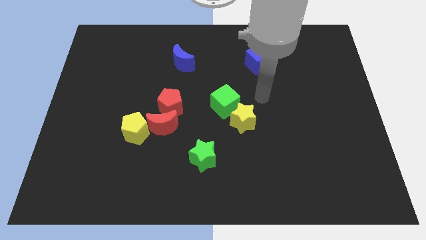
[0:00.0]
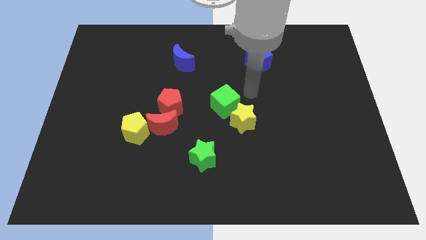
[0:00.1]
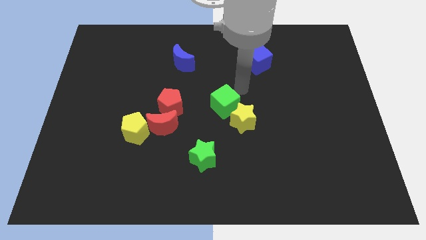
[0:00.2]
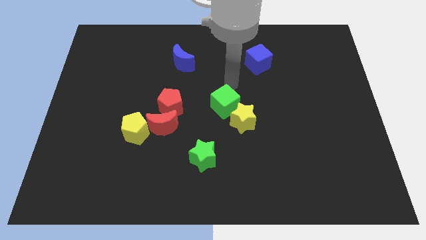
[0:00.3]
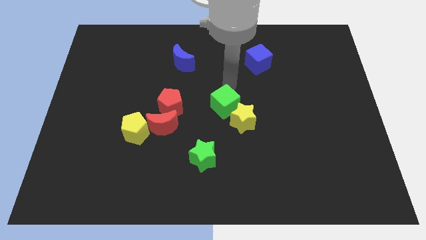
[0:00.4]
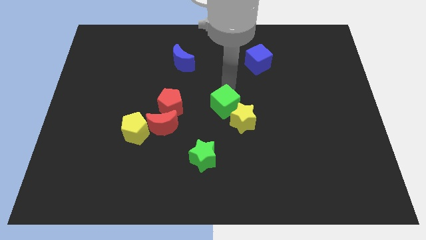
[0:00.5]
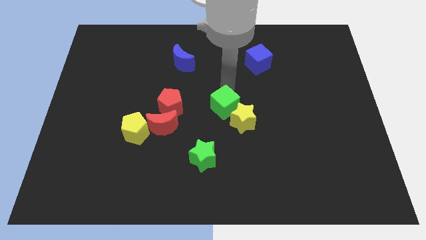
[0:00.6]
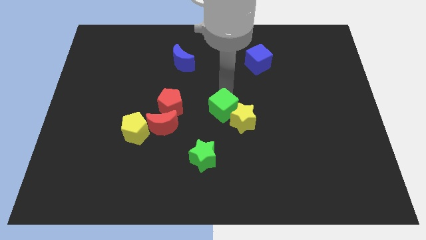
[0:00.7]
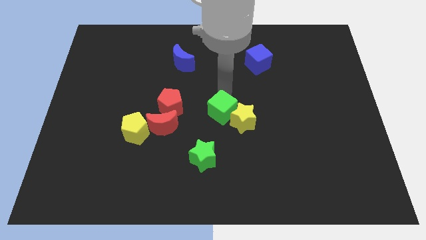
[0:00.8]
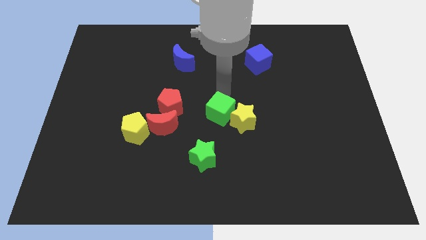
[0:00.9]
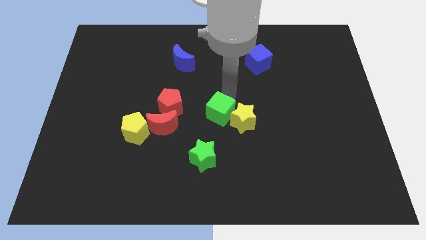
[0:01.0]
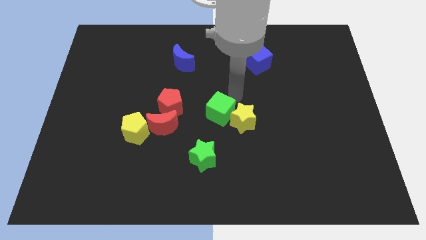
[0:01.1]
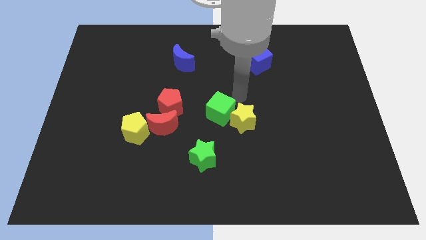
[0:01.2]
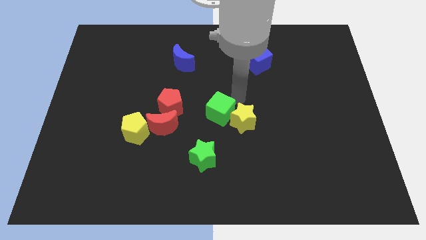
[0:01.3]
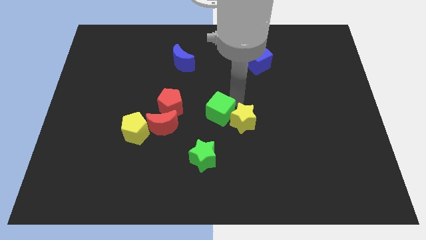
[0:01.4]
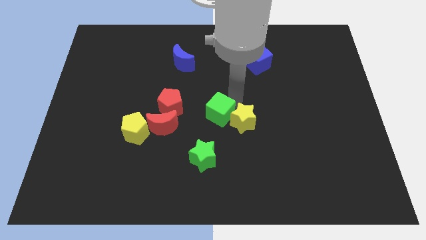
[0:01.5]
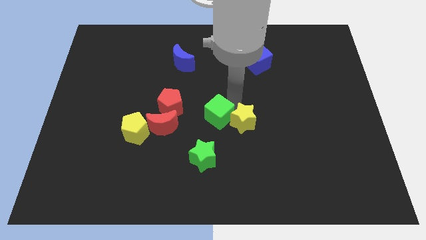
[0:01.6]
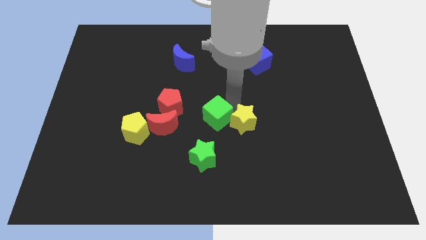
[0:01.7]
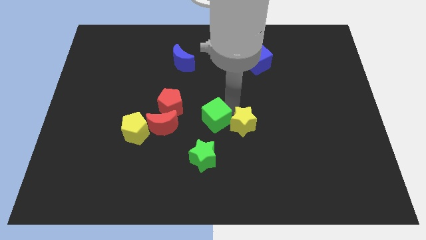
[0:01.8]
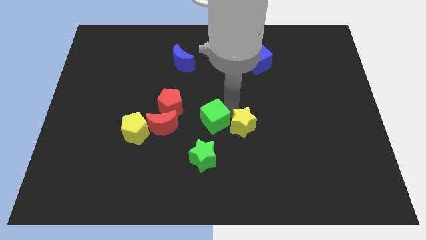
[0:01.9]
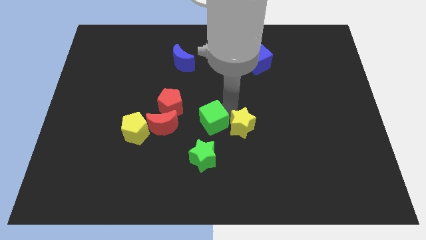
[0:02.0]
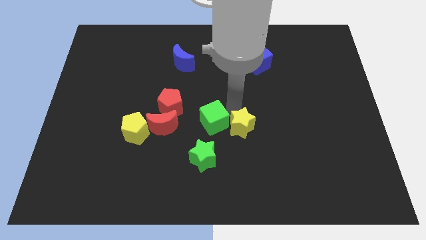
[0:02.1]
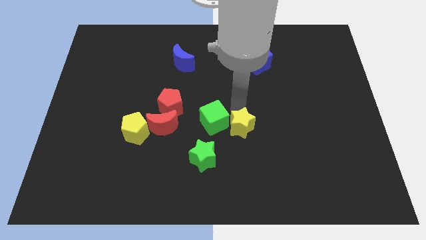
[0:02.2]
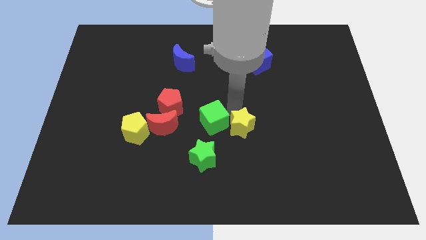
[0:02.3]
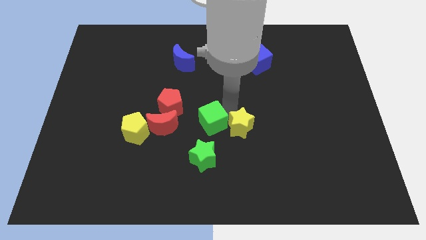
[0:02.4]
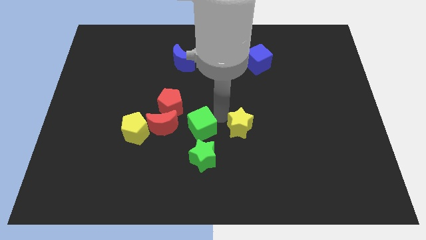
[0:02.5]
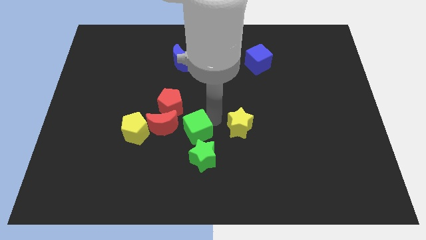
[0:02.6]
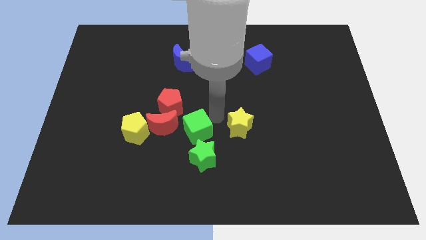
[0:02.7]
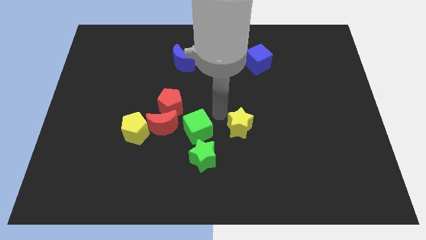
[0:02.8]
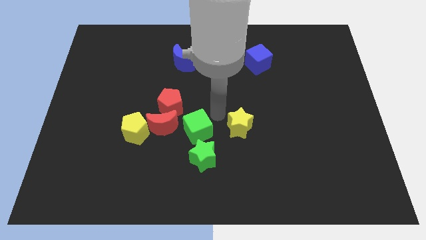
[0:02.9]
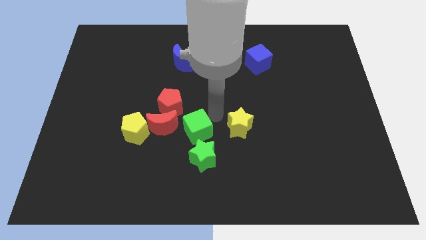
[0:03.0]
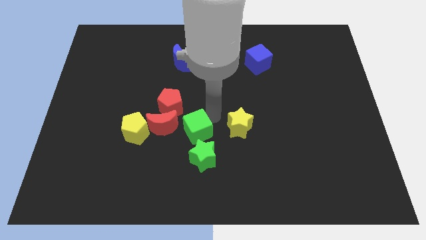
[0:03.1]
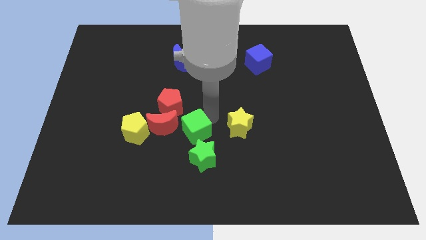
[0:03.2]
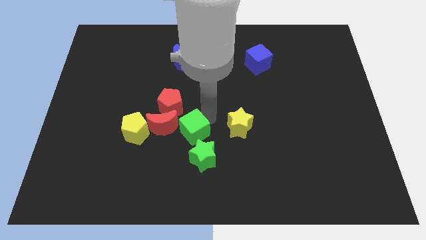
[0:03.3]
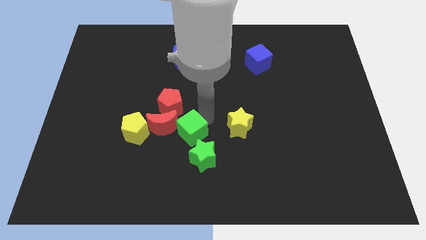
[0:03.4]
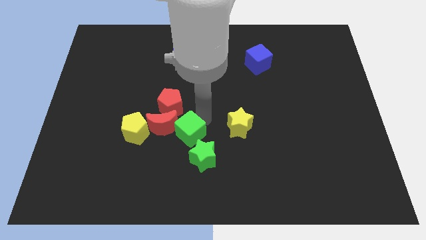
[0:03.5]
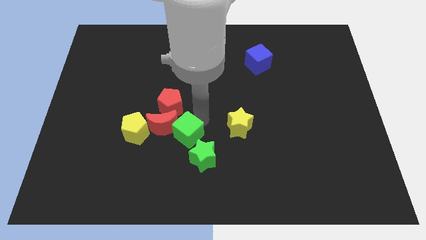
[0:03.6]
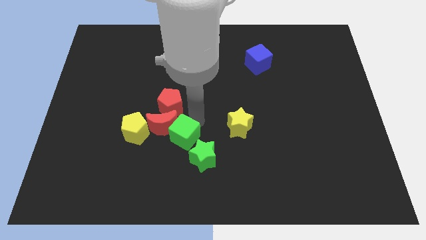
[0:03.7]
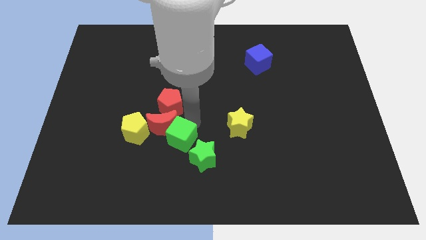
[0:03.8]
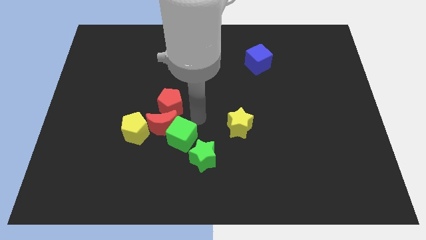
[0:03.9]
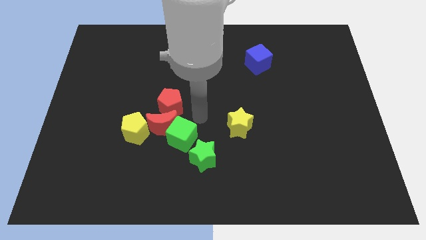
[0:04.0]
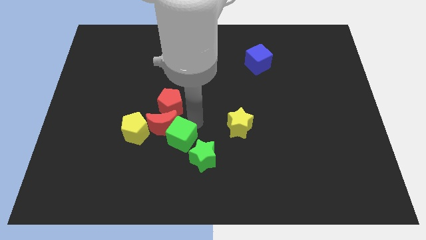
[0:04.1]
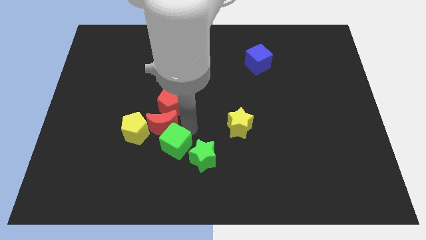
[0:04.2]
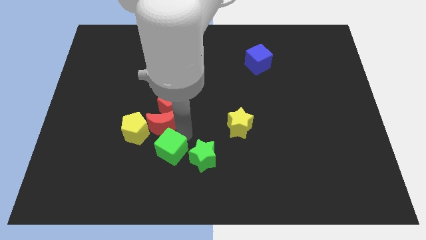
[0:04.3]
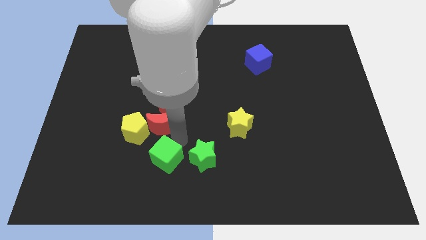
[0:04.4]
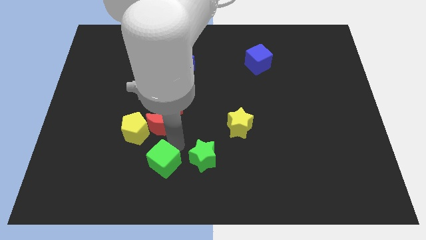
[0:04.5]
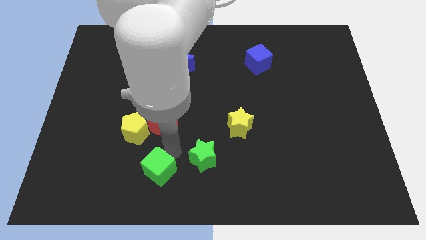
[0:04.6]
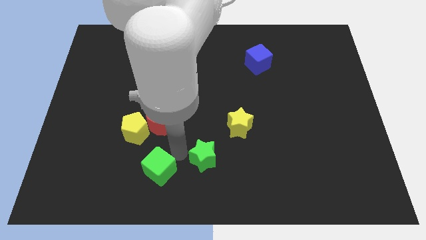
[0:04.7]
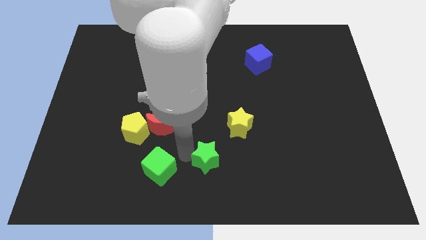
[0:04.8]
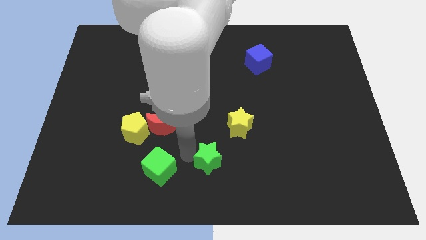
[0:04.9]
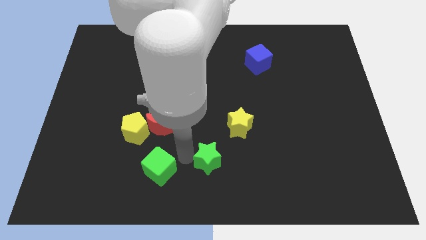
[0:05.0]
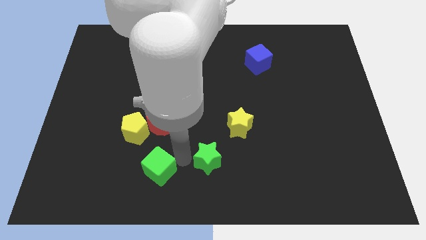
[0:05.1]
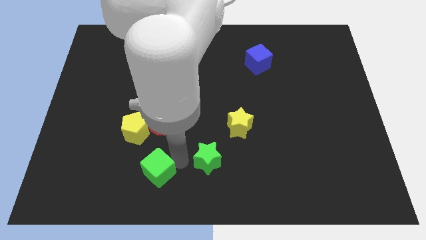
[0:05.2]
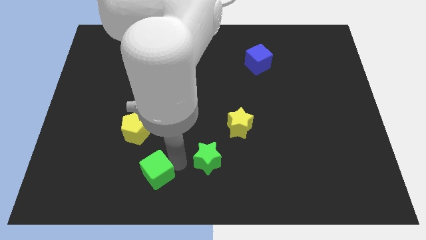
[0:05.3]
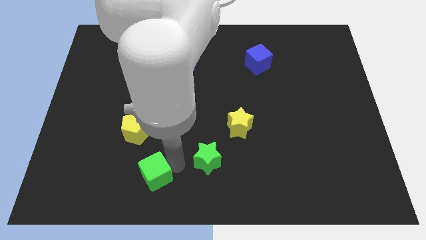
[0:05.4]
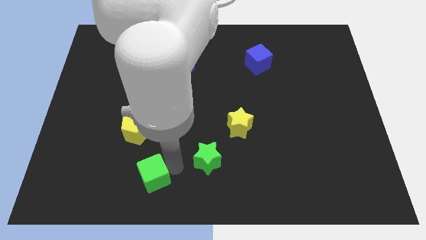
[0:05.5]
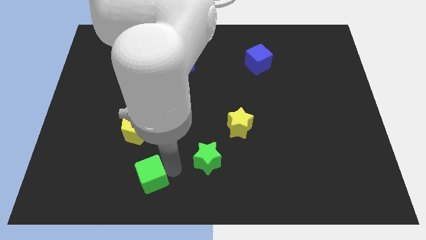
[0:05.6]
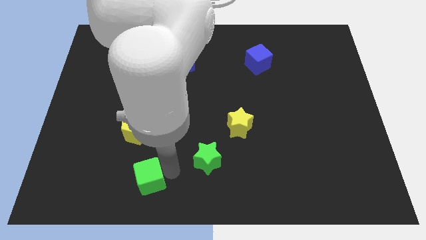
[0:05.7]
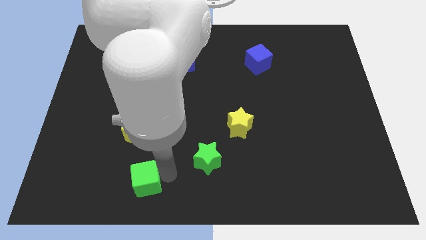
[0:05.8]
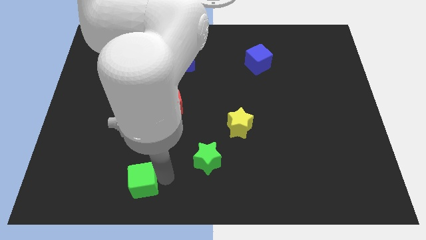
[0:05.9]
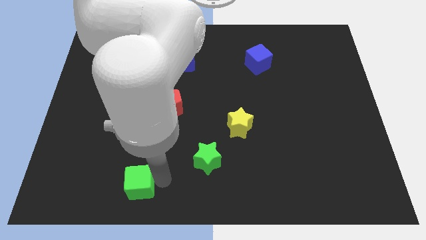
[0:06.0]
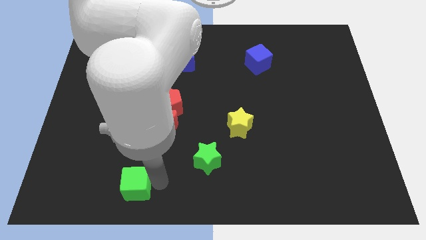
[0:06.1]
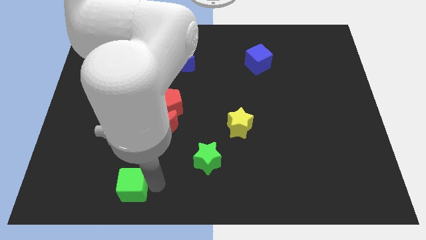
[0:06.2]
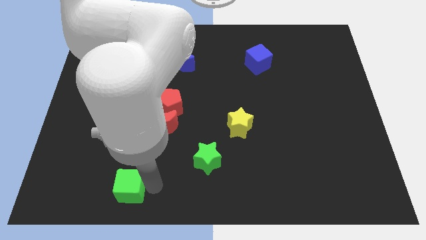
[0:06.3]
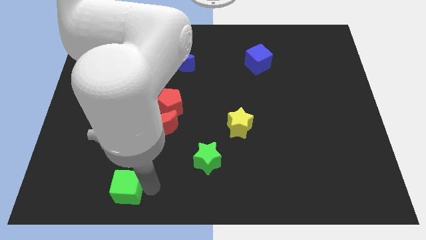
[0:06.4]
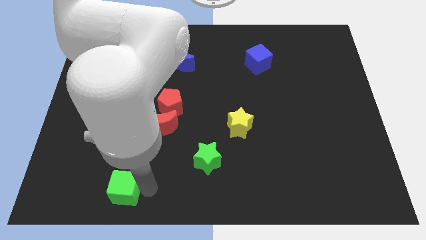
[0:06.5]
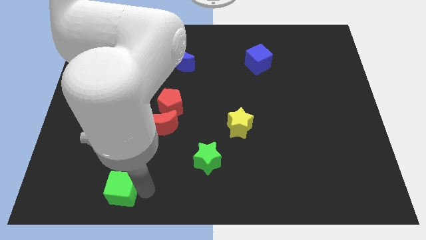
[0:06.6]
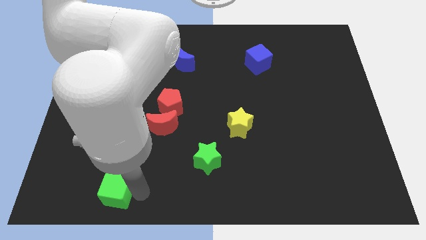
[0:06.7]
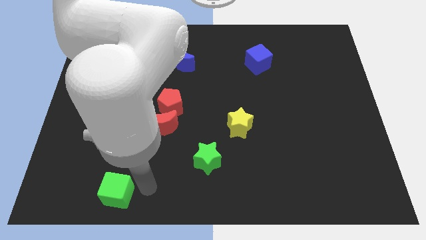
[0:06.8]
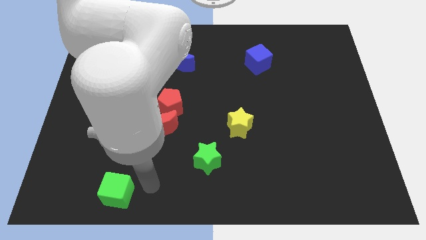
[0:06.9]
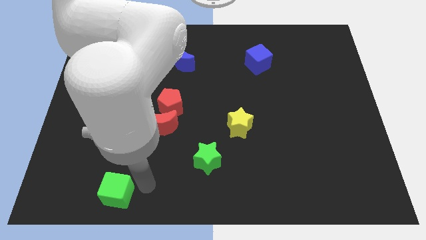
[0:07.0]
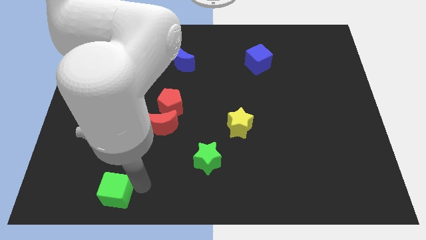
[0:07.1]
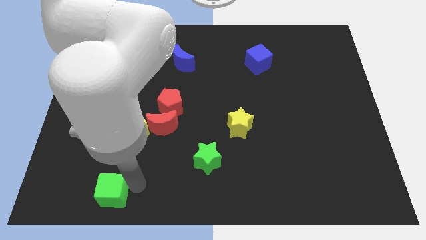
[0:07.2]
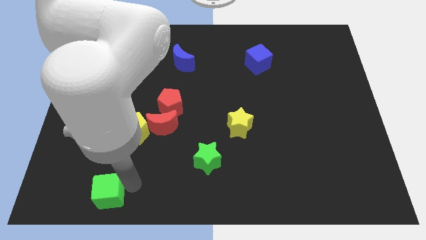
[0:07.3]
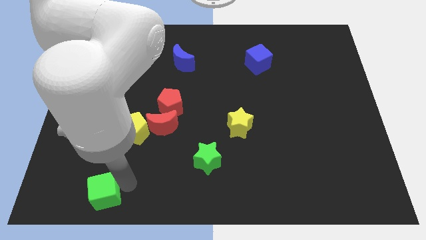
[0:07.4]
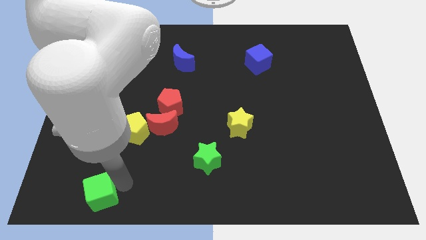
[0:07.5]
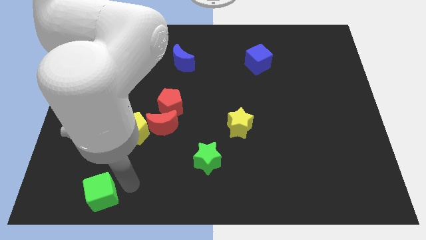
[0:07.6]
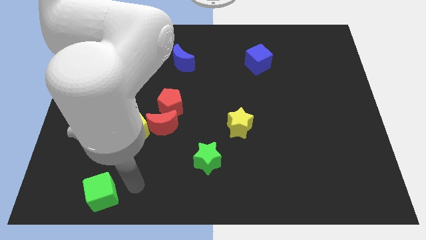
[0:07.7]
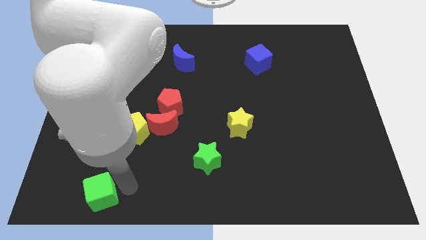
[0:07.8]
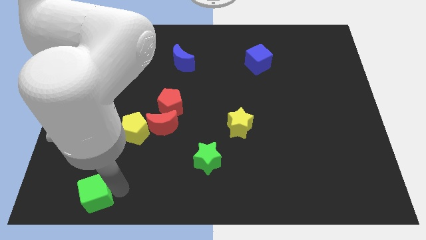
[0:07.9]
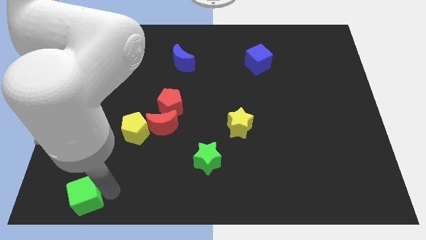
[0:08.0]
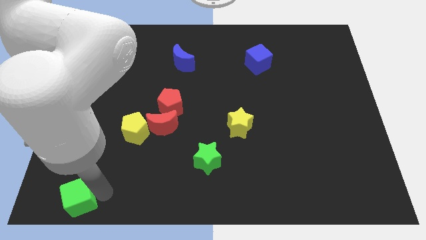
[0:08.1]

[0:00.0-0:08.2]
put the green cube to the bottom left corner

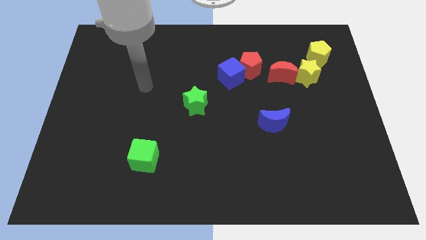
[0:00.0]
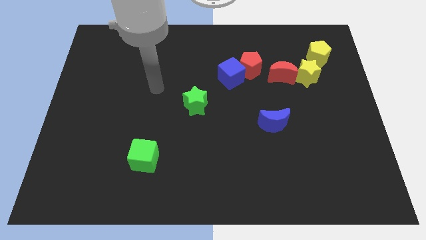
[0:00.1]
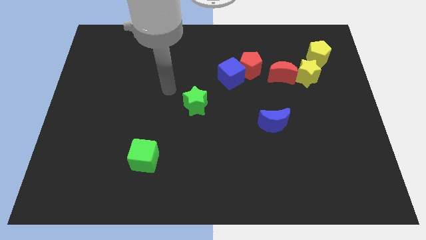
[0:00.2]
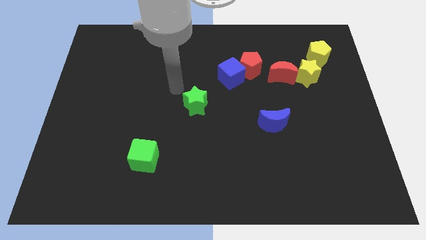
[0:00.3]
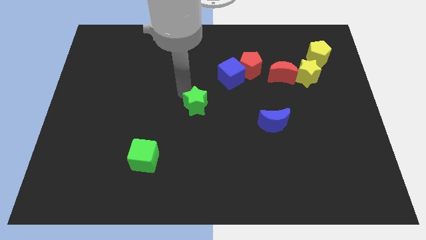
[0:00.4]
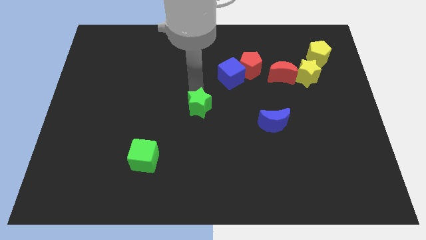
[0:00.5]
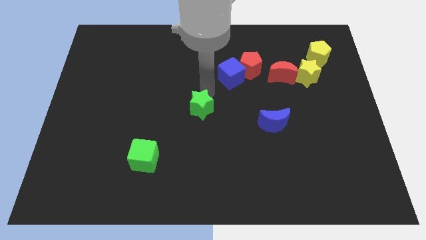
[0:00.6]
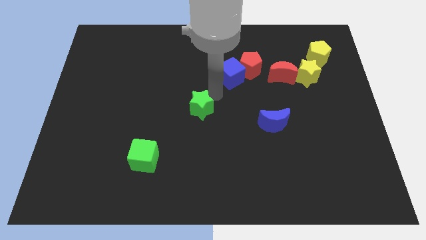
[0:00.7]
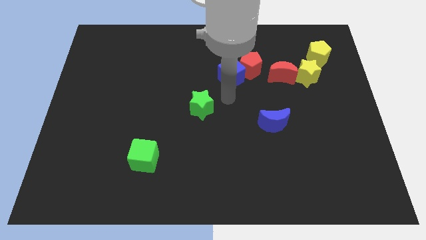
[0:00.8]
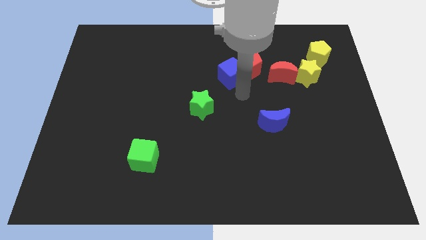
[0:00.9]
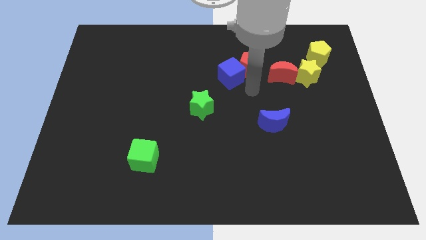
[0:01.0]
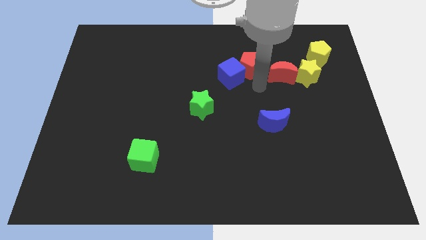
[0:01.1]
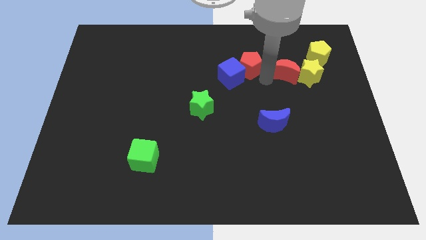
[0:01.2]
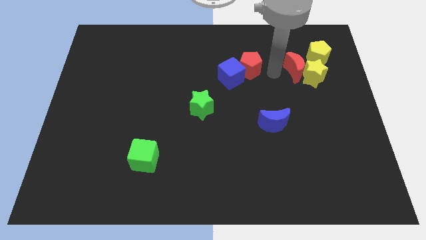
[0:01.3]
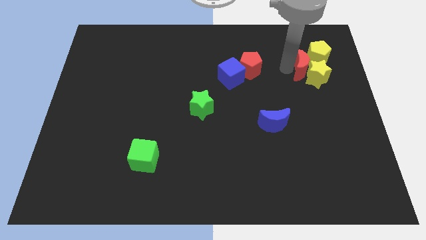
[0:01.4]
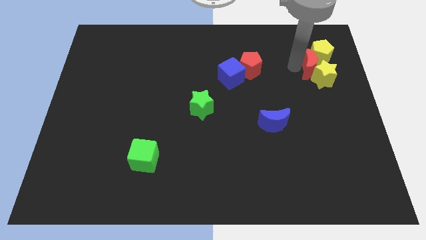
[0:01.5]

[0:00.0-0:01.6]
push the yellow star to the right side
